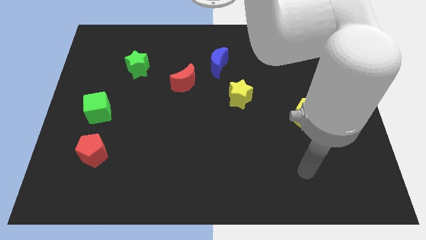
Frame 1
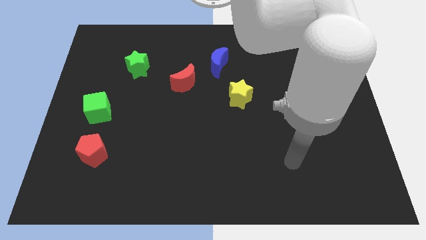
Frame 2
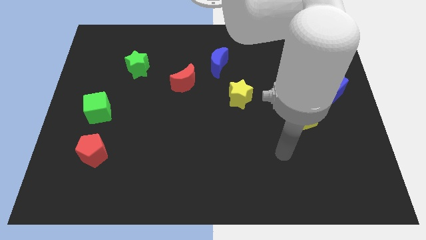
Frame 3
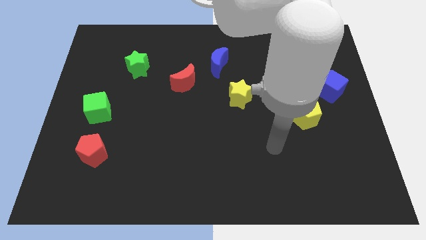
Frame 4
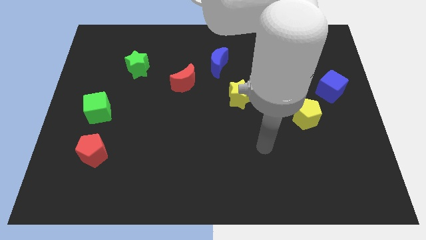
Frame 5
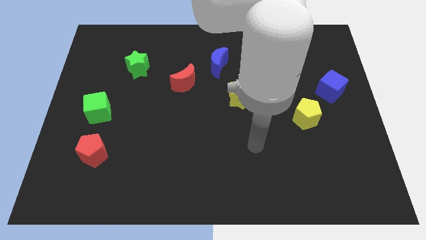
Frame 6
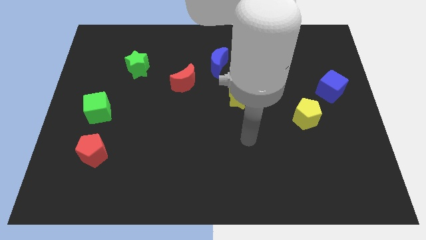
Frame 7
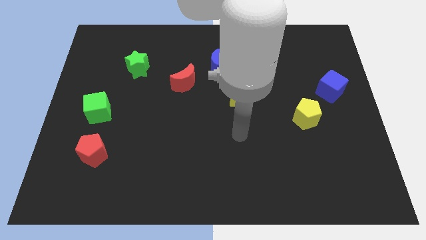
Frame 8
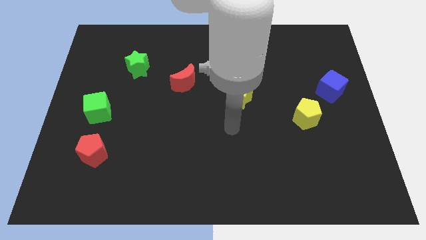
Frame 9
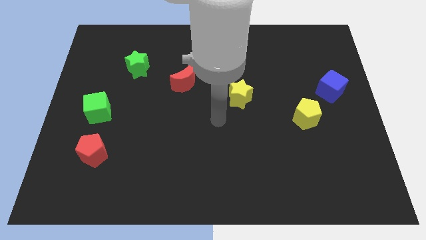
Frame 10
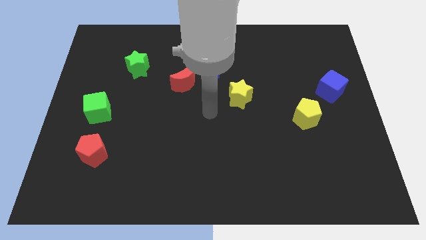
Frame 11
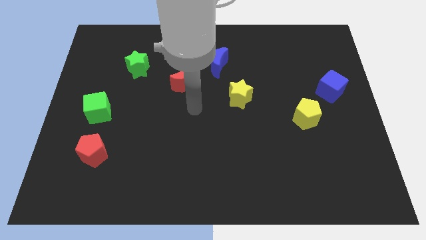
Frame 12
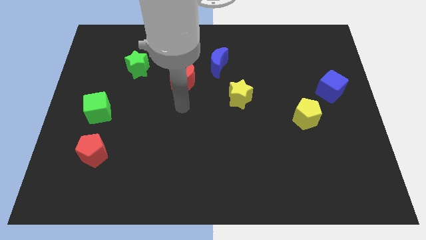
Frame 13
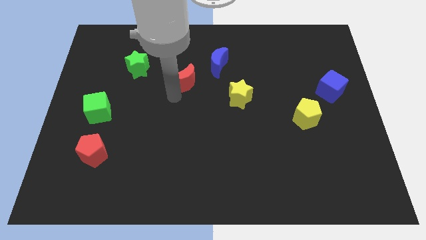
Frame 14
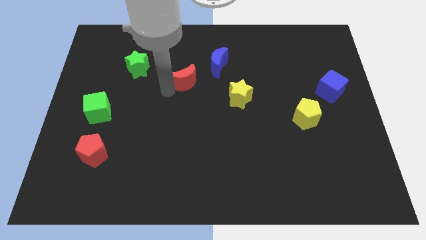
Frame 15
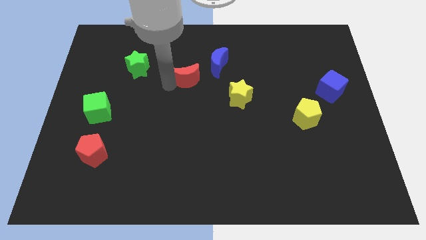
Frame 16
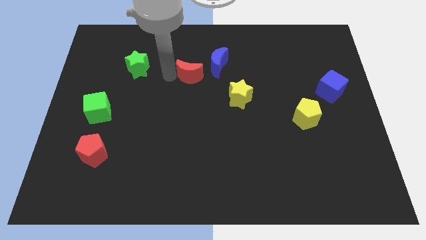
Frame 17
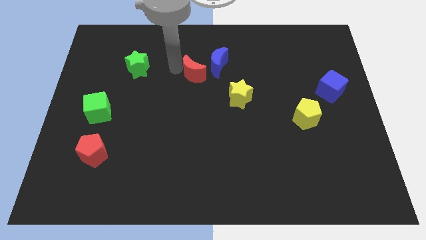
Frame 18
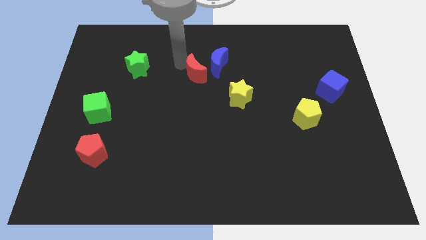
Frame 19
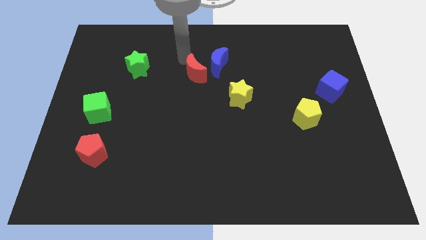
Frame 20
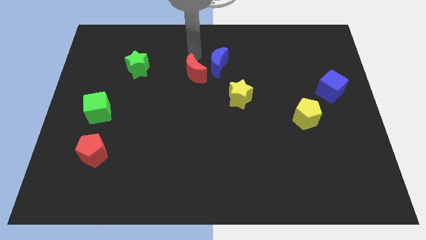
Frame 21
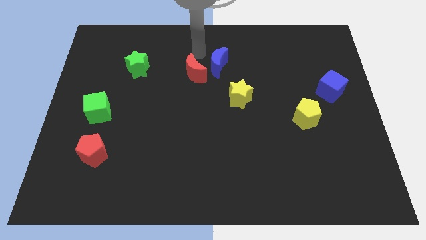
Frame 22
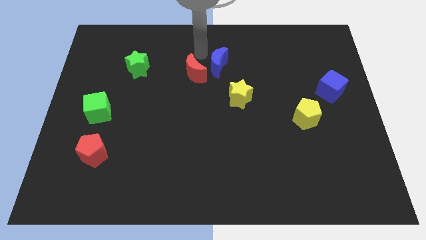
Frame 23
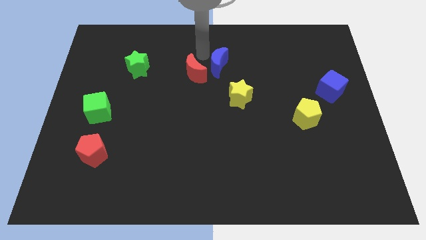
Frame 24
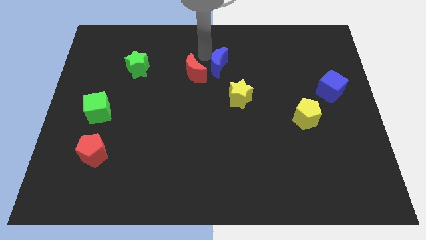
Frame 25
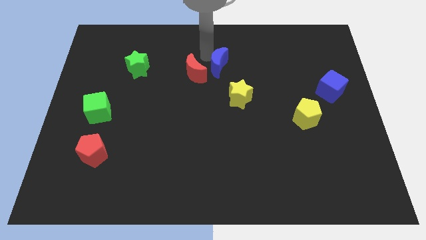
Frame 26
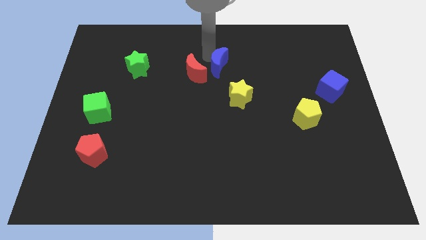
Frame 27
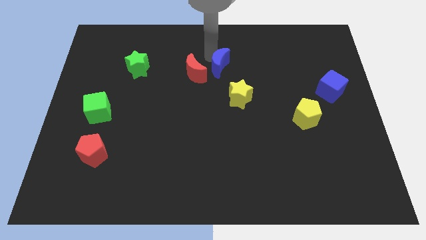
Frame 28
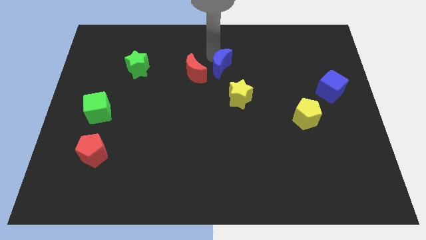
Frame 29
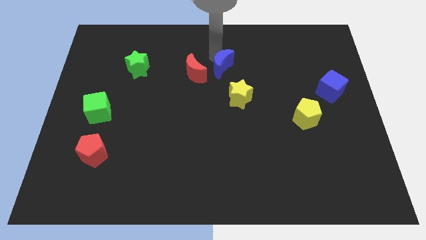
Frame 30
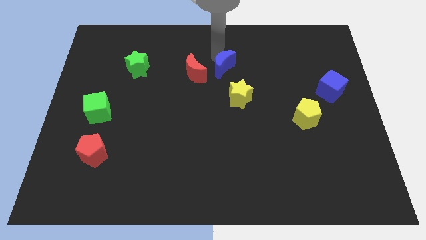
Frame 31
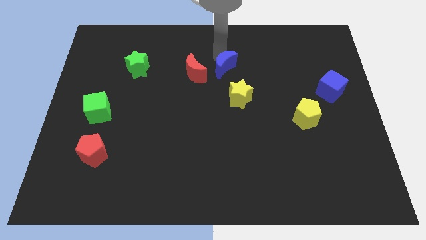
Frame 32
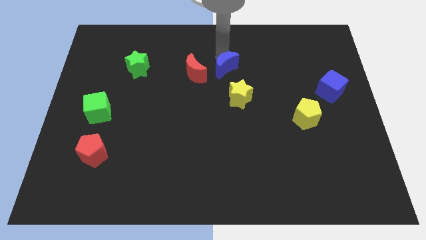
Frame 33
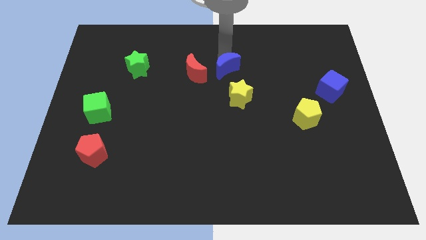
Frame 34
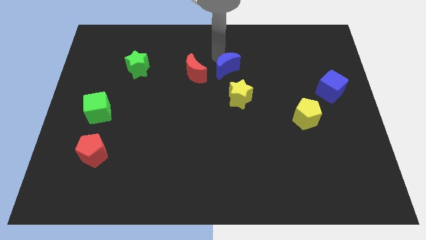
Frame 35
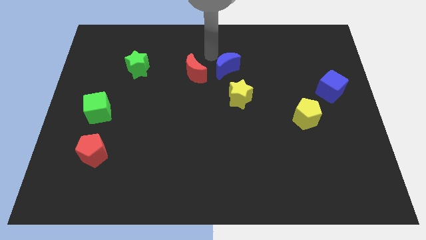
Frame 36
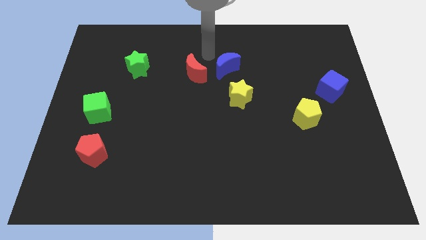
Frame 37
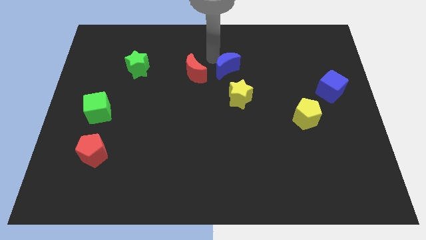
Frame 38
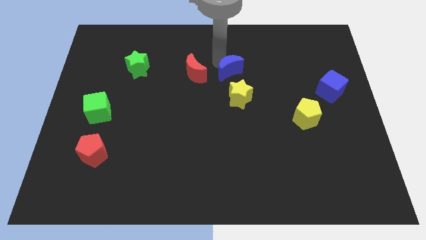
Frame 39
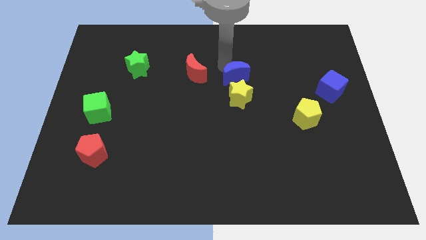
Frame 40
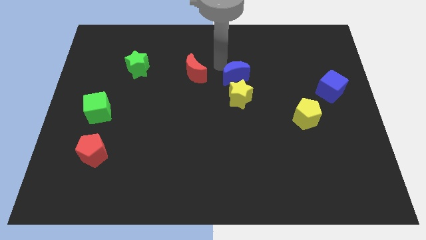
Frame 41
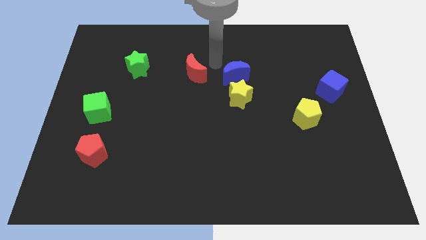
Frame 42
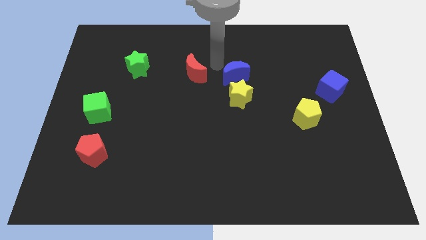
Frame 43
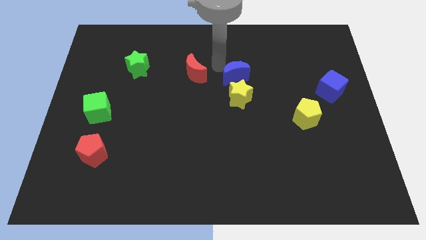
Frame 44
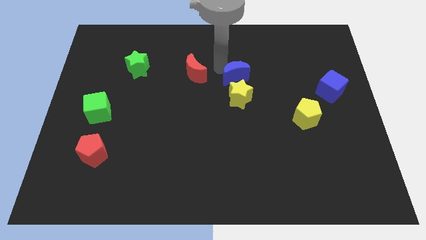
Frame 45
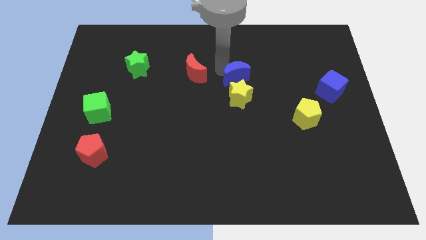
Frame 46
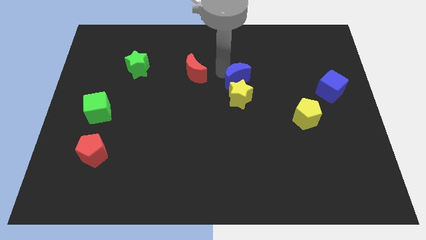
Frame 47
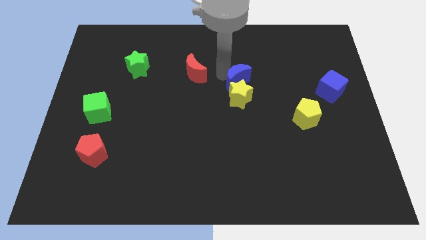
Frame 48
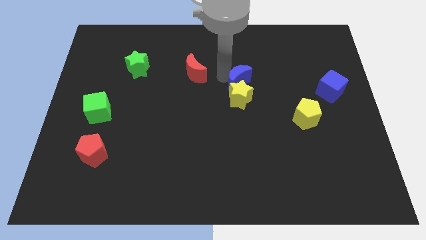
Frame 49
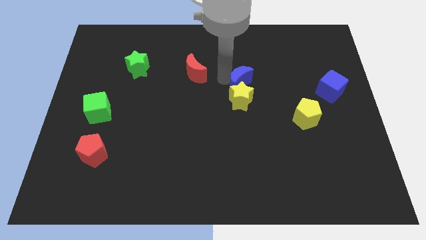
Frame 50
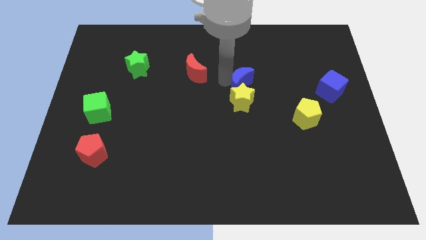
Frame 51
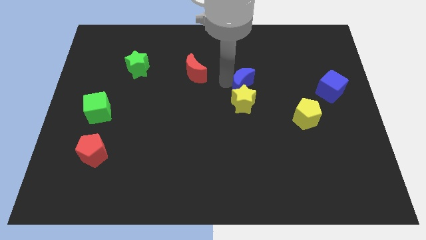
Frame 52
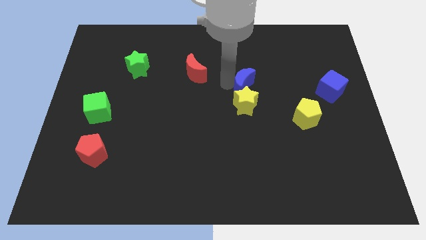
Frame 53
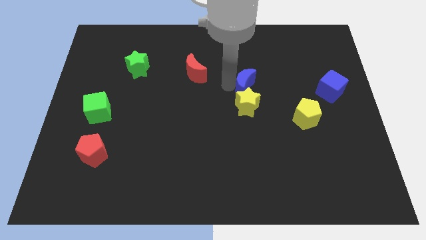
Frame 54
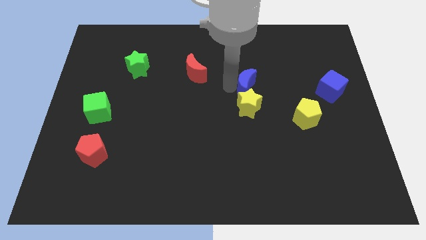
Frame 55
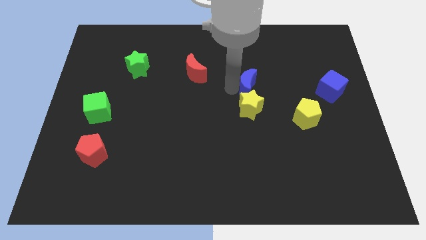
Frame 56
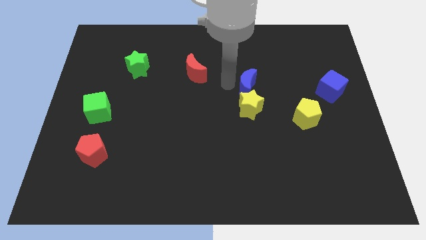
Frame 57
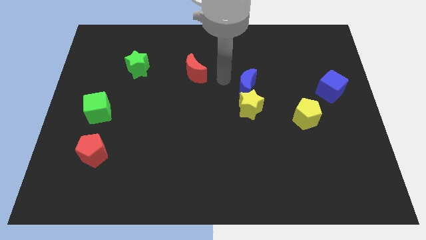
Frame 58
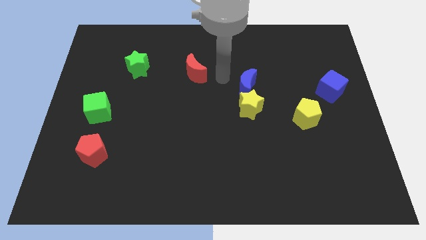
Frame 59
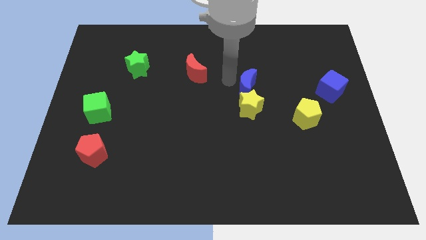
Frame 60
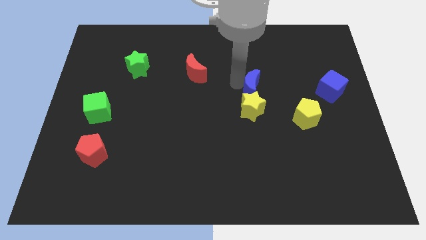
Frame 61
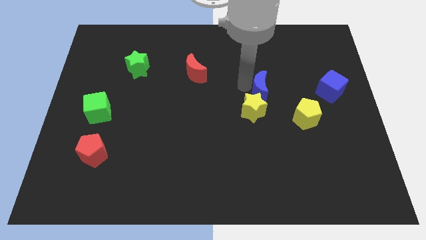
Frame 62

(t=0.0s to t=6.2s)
slide the blue moon to the top left side of the yellow pentagon

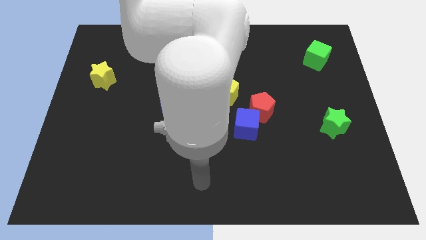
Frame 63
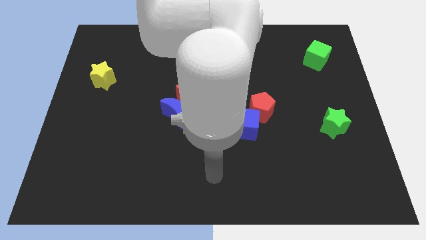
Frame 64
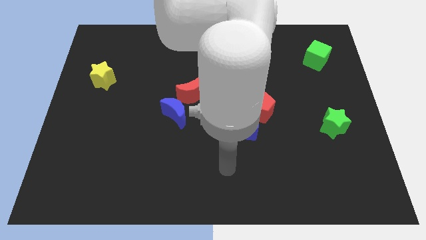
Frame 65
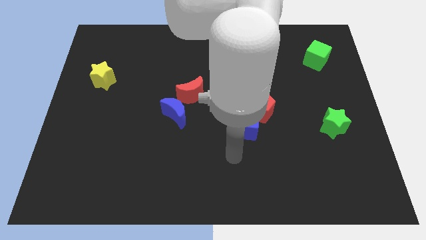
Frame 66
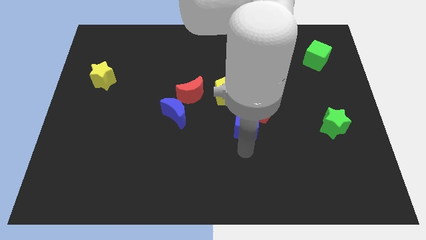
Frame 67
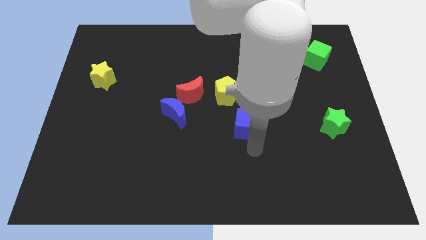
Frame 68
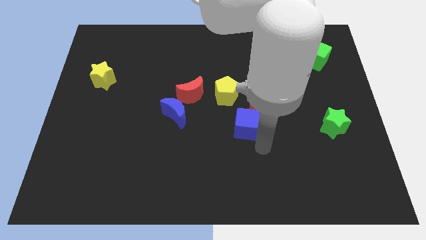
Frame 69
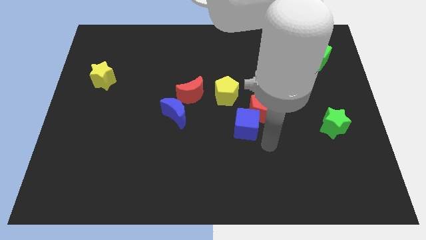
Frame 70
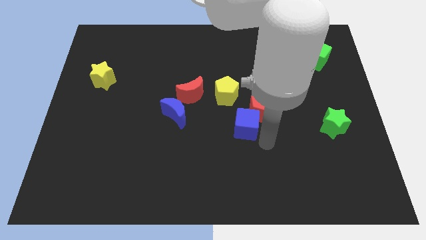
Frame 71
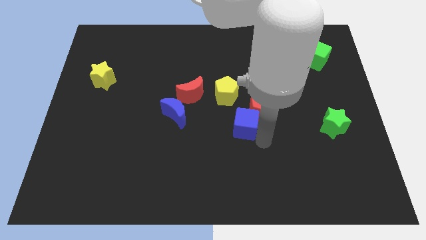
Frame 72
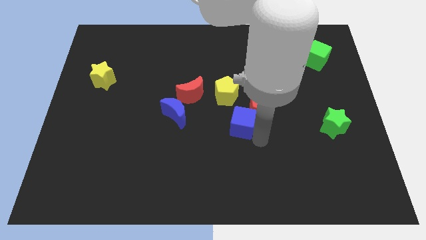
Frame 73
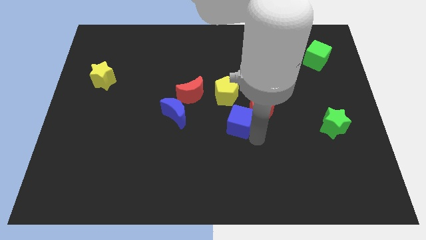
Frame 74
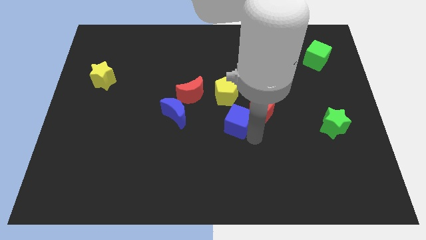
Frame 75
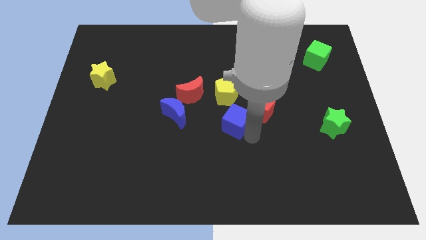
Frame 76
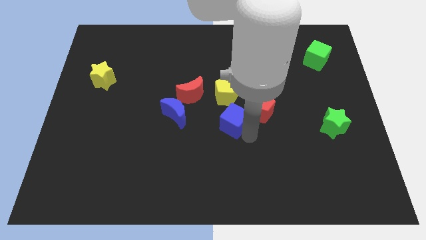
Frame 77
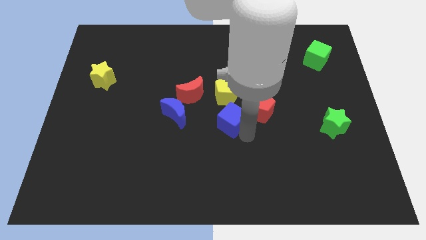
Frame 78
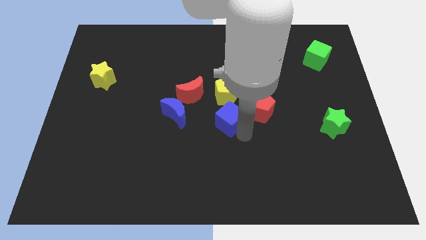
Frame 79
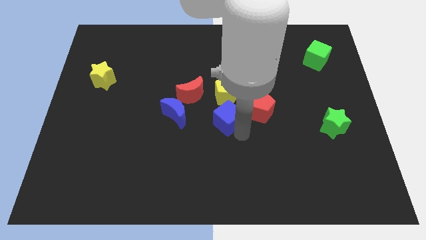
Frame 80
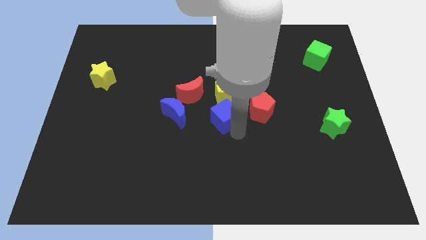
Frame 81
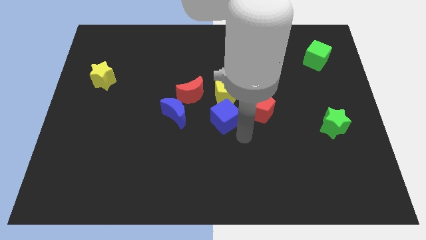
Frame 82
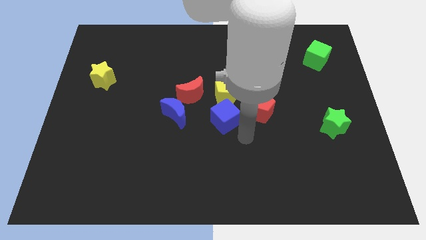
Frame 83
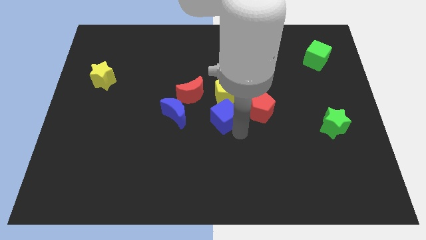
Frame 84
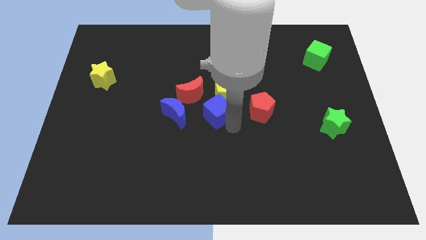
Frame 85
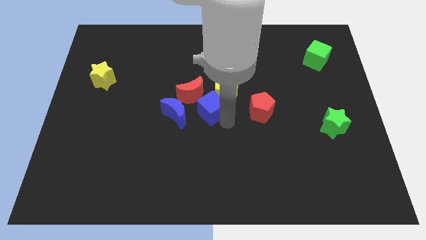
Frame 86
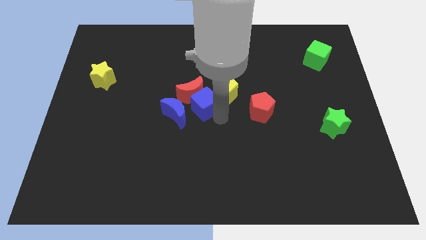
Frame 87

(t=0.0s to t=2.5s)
slide the blue cube to the top right side of the blue moon

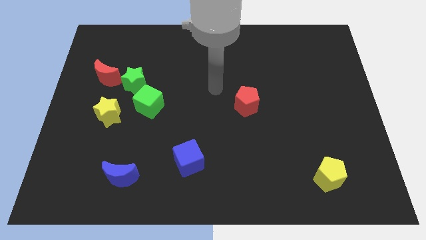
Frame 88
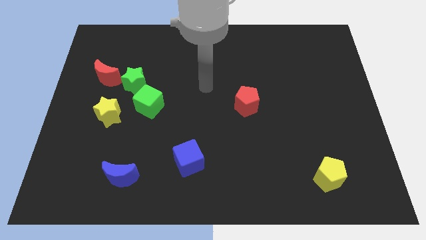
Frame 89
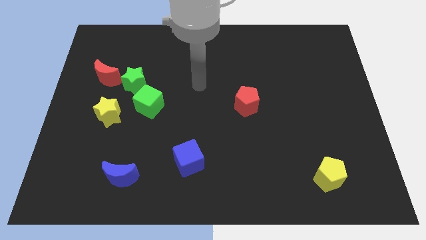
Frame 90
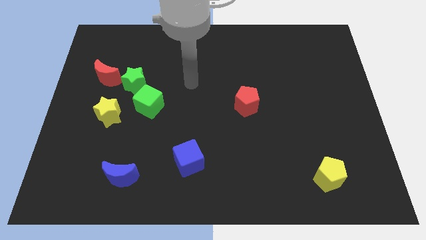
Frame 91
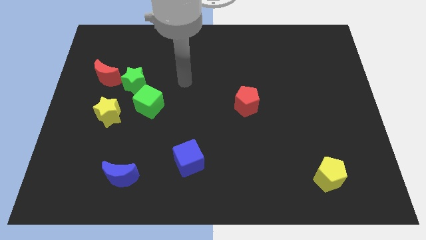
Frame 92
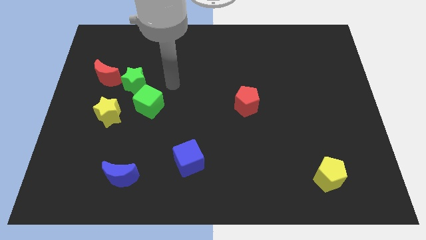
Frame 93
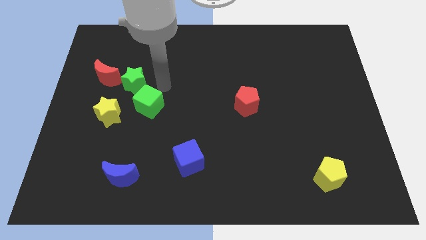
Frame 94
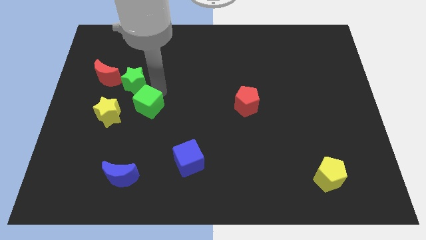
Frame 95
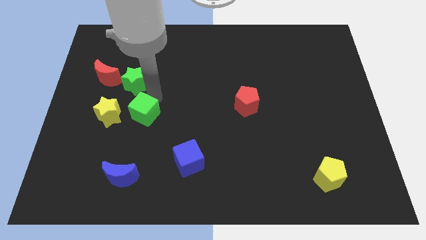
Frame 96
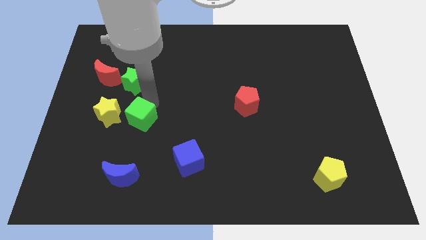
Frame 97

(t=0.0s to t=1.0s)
move the green cube above the blue moon
